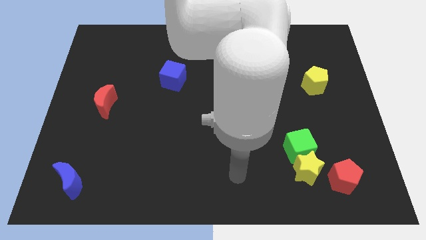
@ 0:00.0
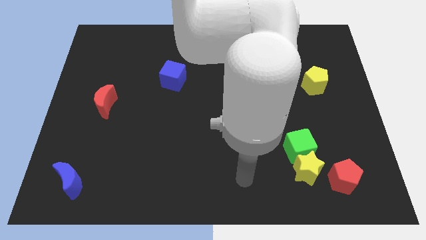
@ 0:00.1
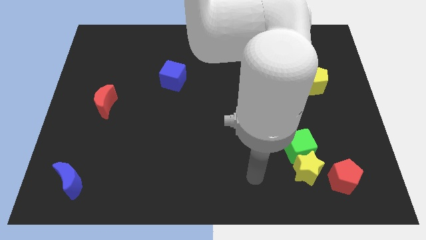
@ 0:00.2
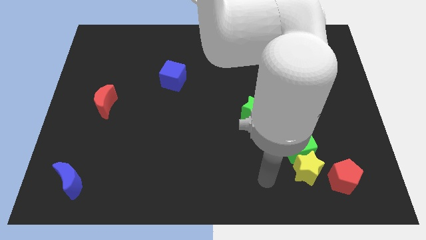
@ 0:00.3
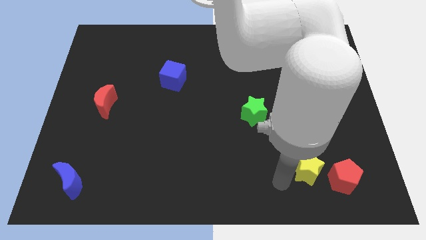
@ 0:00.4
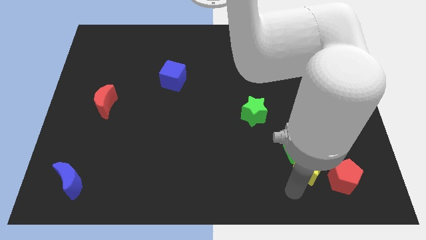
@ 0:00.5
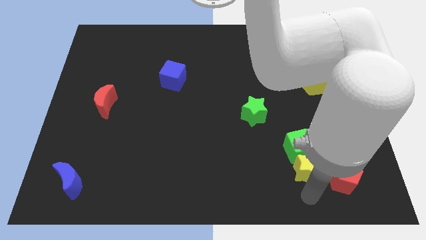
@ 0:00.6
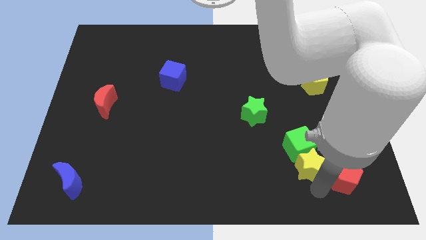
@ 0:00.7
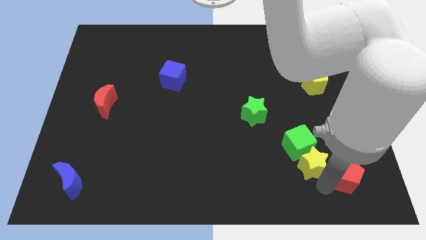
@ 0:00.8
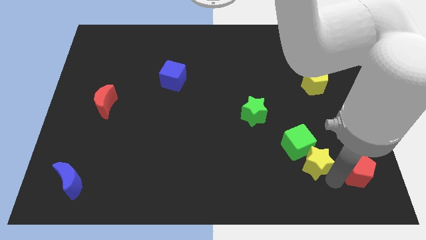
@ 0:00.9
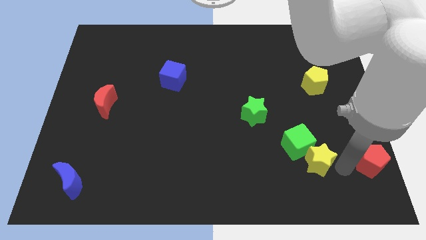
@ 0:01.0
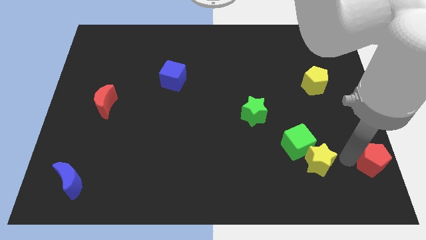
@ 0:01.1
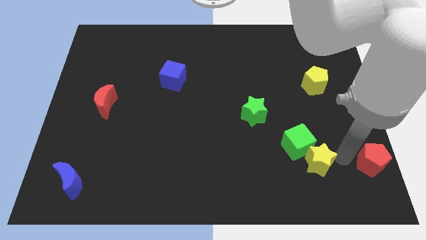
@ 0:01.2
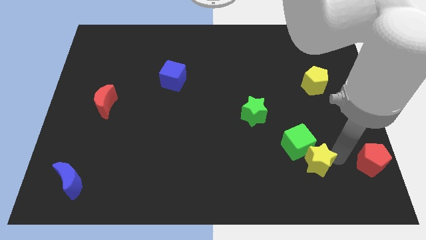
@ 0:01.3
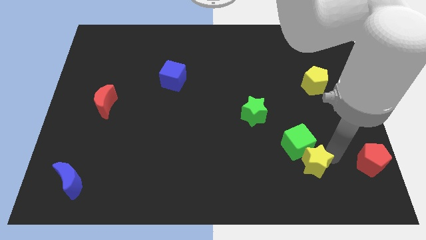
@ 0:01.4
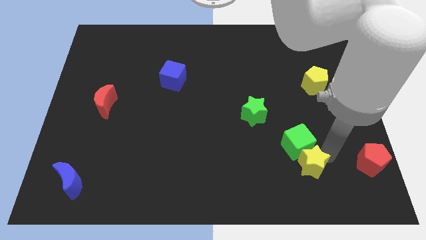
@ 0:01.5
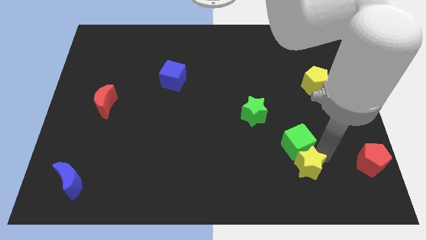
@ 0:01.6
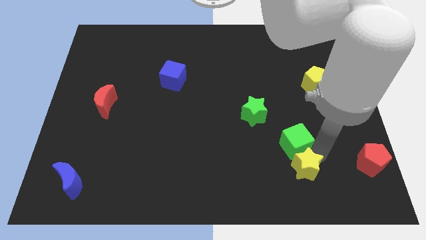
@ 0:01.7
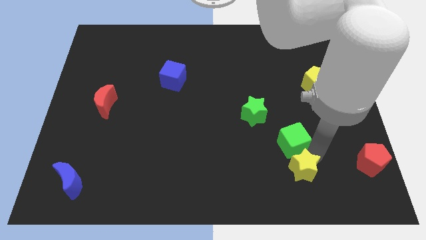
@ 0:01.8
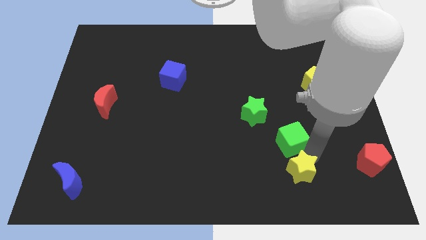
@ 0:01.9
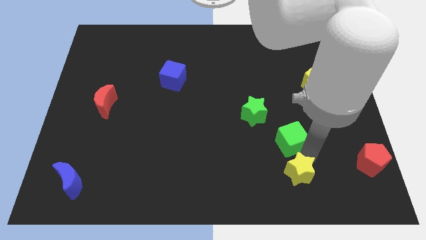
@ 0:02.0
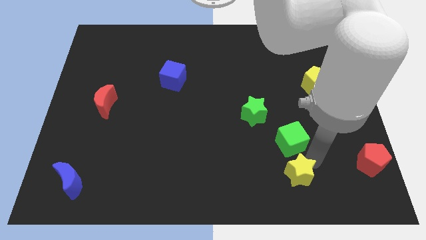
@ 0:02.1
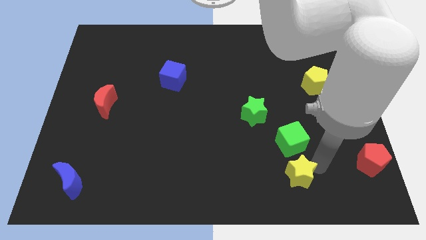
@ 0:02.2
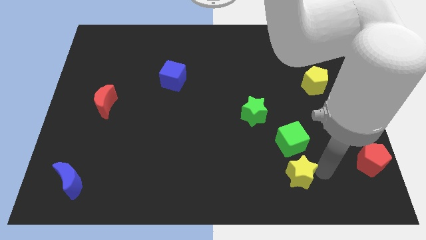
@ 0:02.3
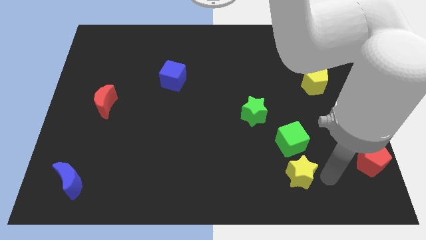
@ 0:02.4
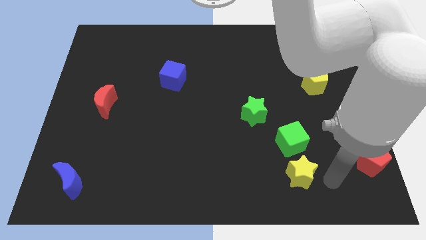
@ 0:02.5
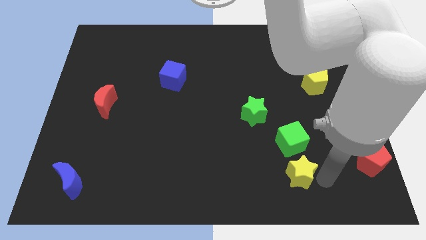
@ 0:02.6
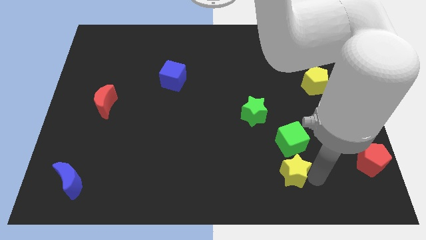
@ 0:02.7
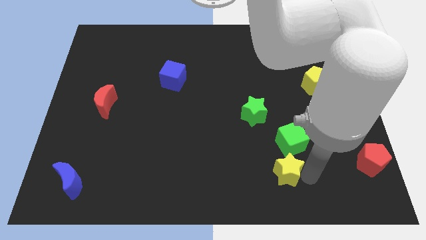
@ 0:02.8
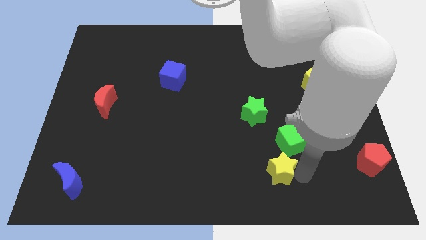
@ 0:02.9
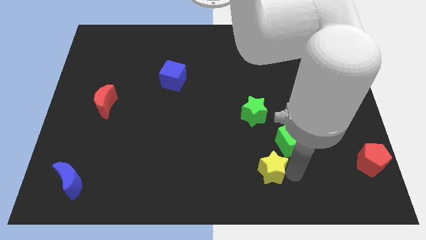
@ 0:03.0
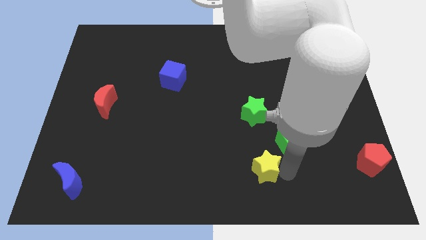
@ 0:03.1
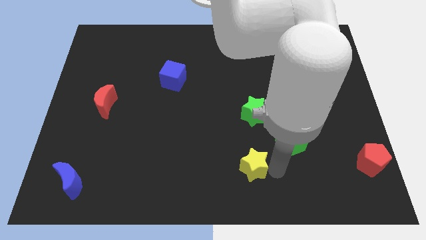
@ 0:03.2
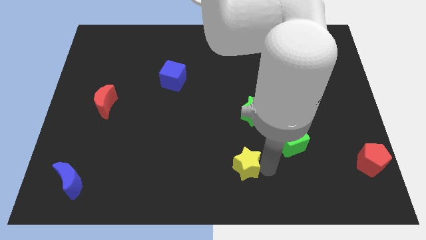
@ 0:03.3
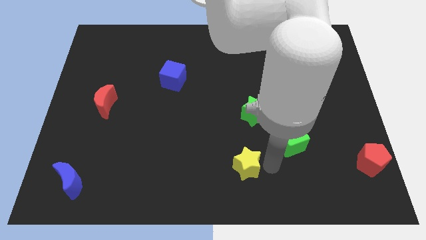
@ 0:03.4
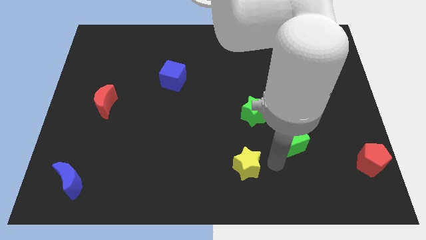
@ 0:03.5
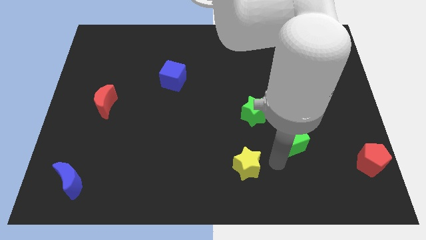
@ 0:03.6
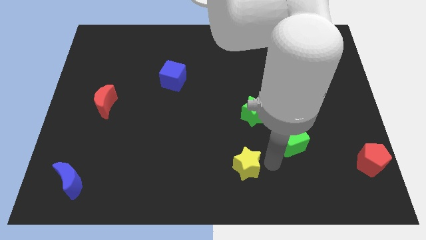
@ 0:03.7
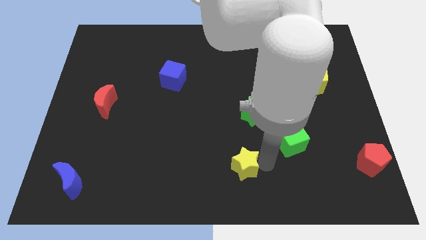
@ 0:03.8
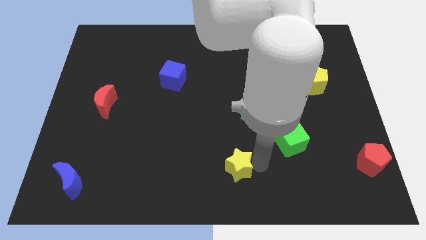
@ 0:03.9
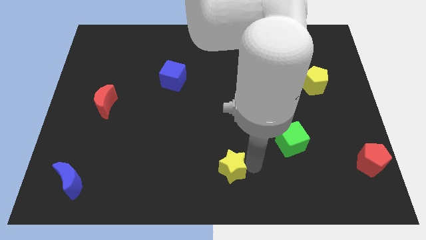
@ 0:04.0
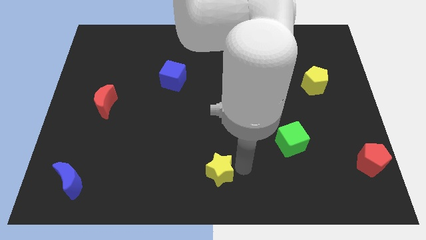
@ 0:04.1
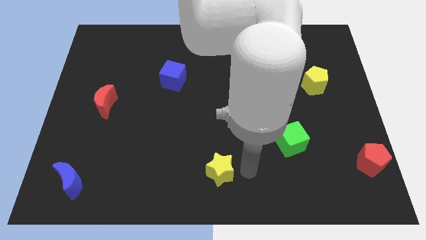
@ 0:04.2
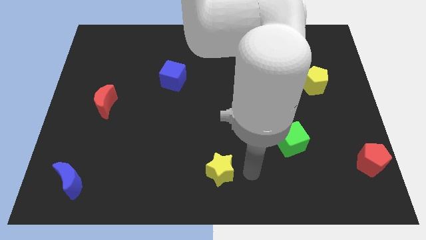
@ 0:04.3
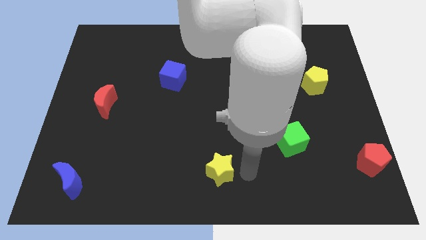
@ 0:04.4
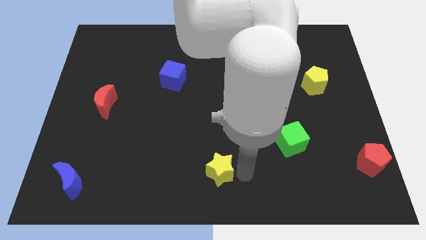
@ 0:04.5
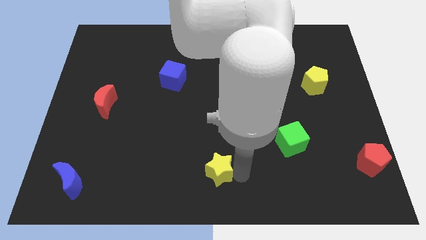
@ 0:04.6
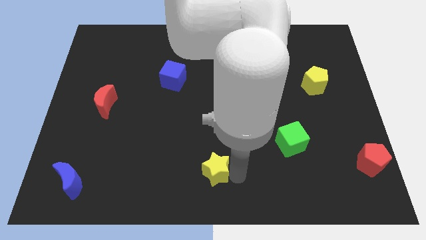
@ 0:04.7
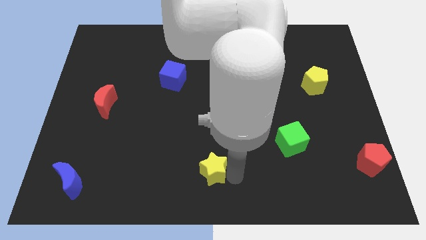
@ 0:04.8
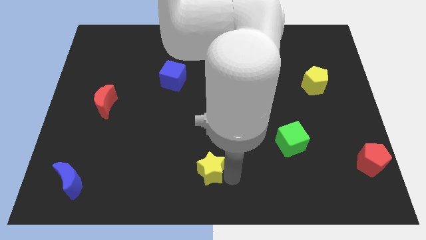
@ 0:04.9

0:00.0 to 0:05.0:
move the yellow star to the left

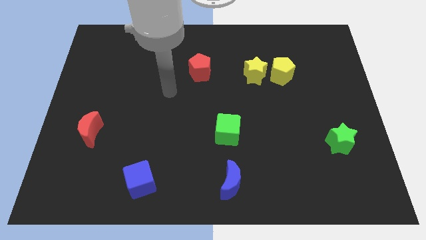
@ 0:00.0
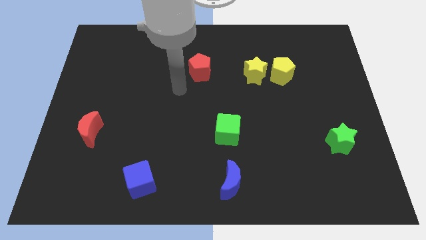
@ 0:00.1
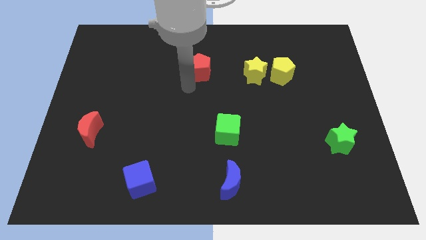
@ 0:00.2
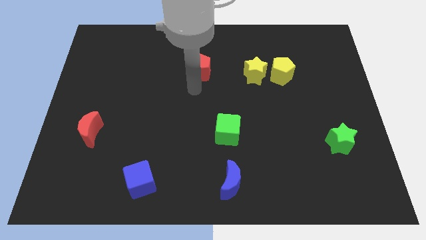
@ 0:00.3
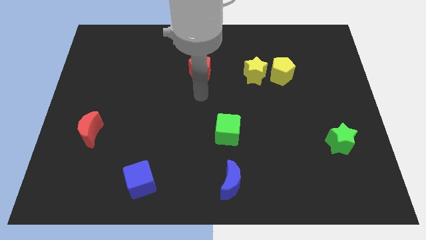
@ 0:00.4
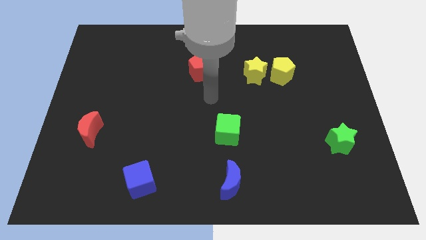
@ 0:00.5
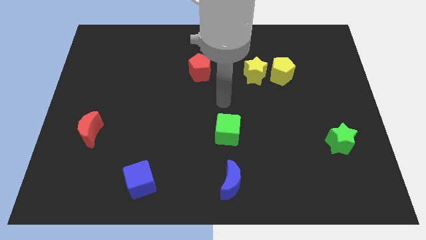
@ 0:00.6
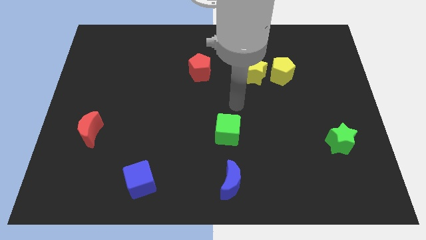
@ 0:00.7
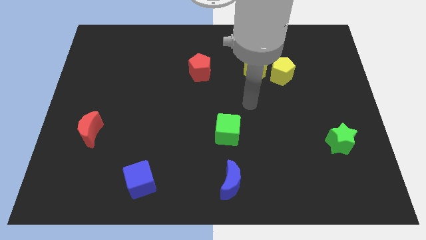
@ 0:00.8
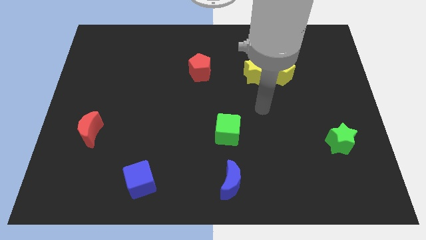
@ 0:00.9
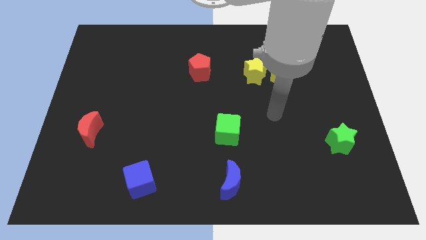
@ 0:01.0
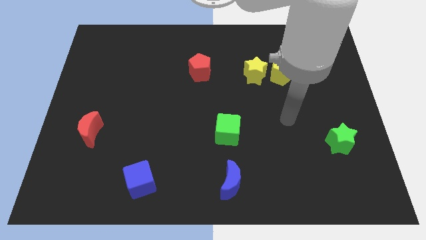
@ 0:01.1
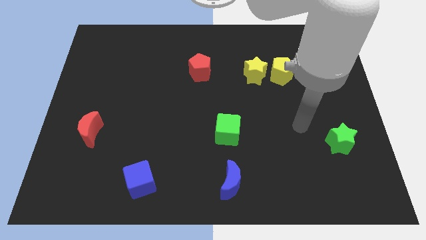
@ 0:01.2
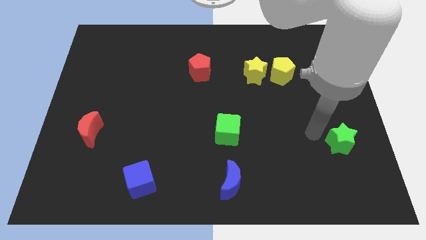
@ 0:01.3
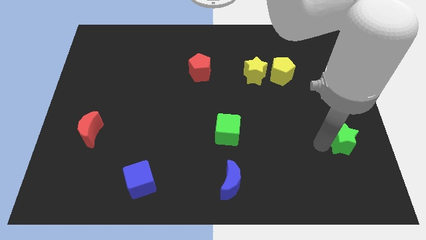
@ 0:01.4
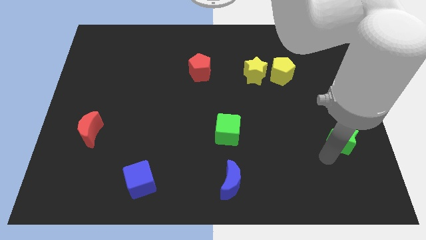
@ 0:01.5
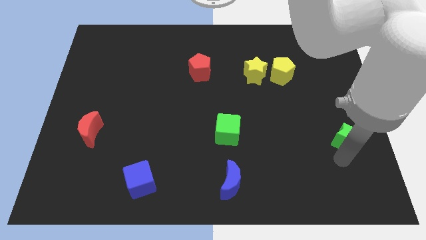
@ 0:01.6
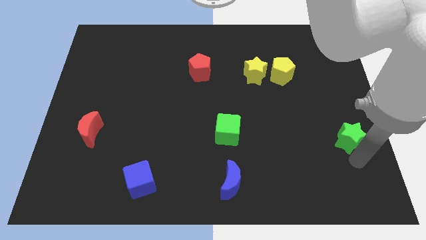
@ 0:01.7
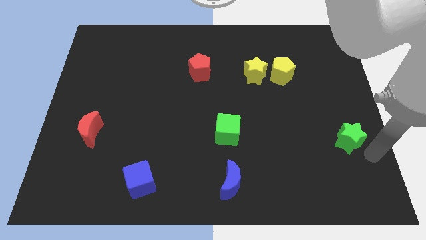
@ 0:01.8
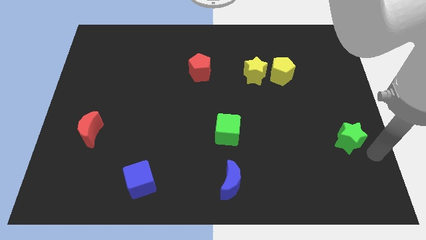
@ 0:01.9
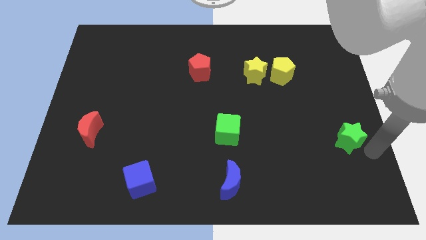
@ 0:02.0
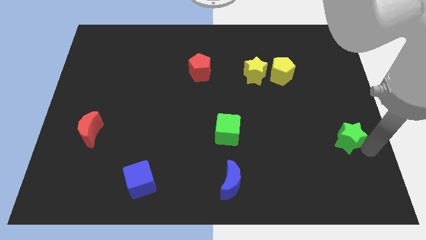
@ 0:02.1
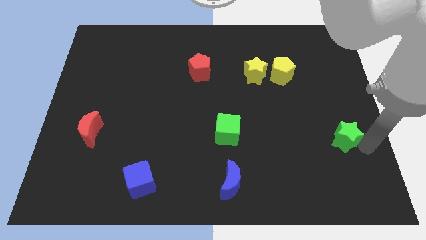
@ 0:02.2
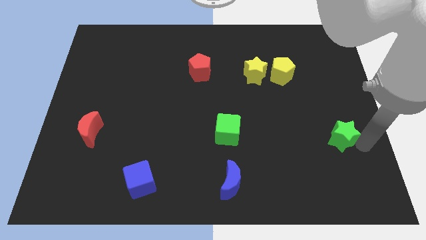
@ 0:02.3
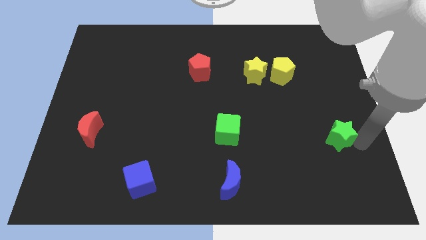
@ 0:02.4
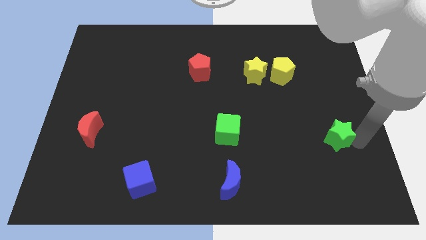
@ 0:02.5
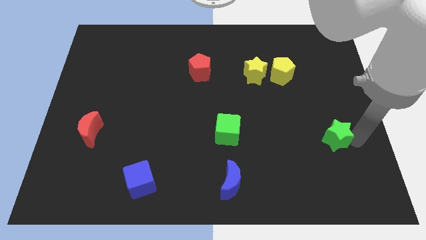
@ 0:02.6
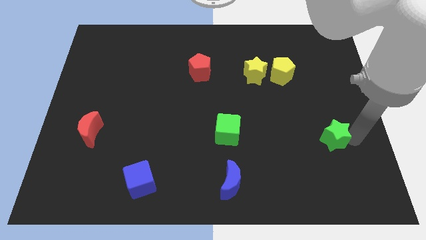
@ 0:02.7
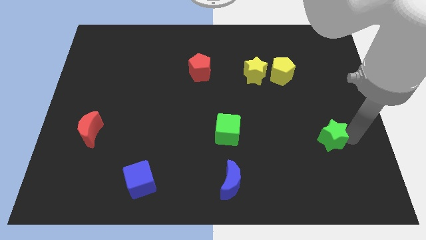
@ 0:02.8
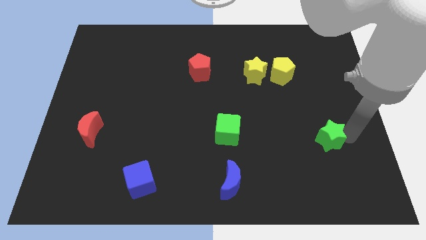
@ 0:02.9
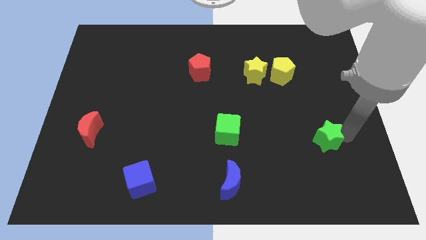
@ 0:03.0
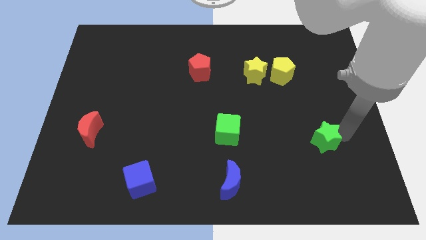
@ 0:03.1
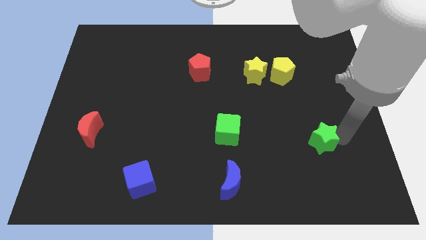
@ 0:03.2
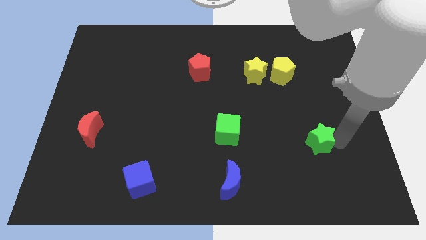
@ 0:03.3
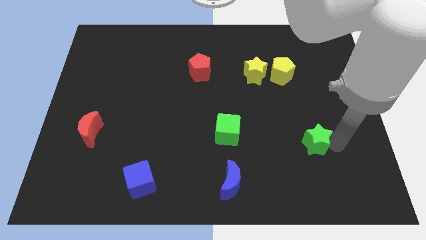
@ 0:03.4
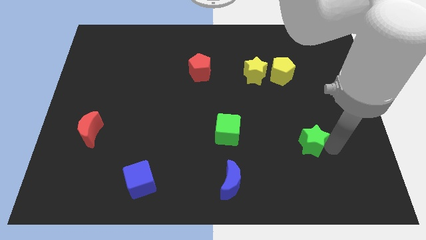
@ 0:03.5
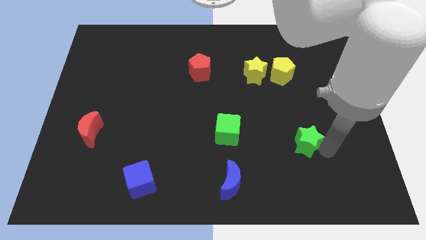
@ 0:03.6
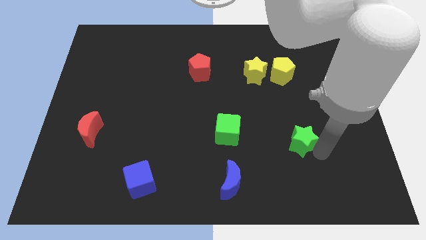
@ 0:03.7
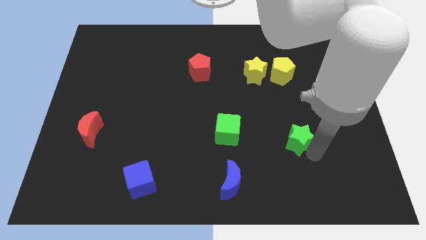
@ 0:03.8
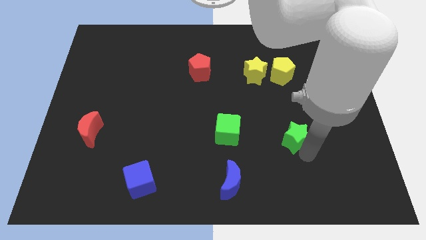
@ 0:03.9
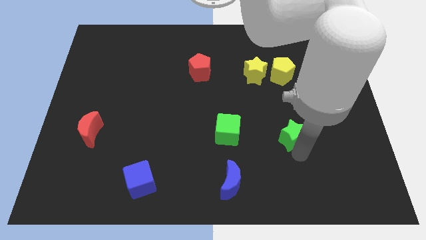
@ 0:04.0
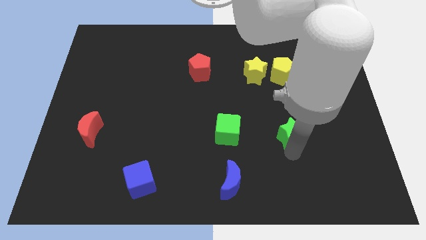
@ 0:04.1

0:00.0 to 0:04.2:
slightly move the green star upwards and to the left diagonally
